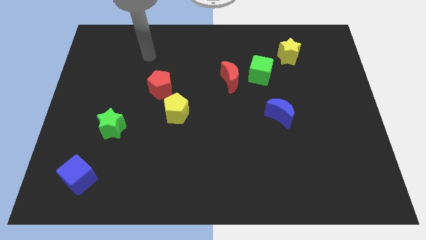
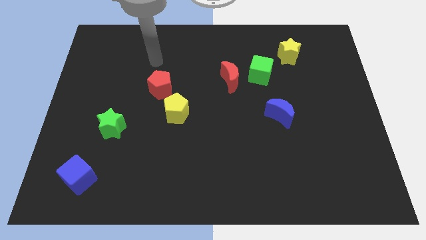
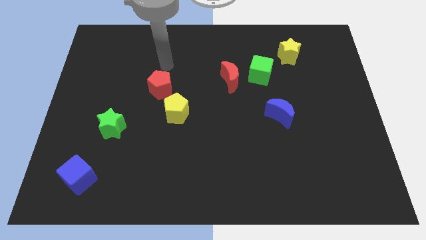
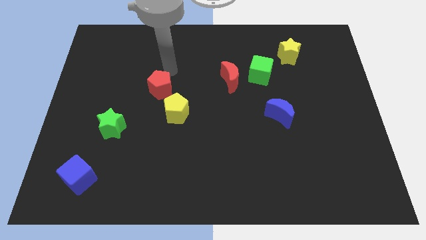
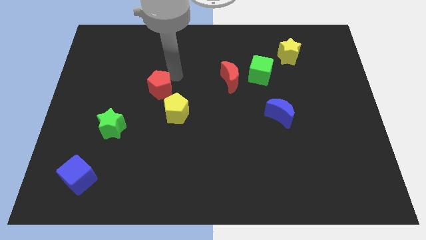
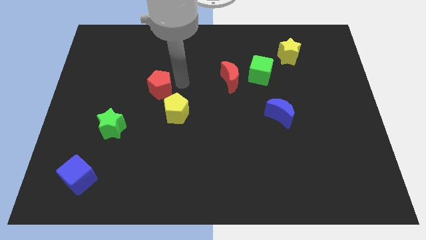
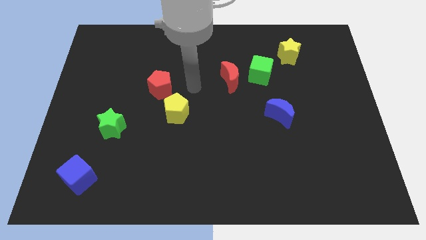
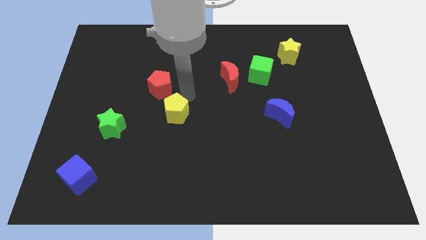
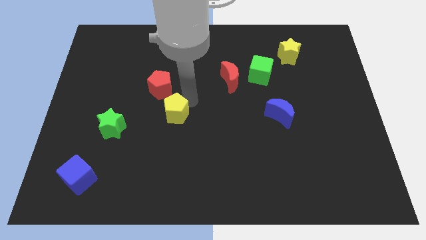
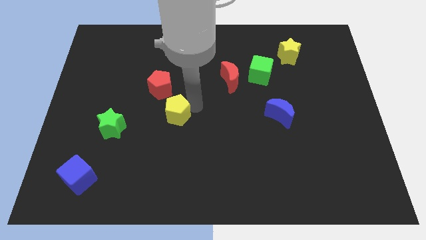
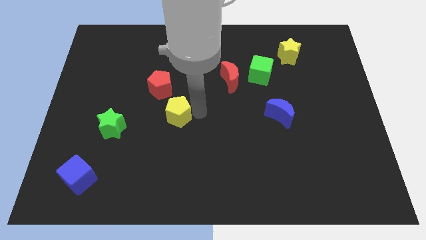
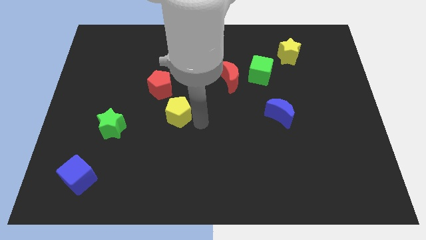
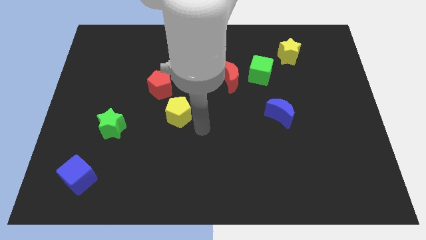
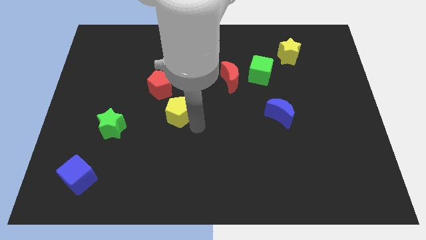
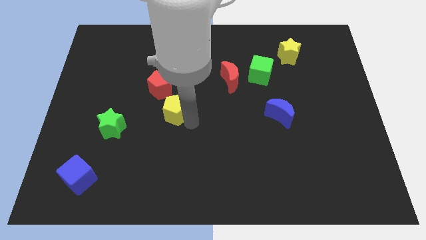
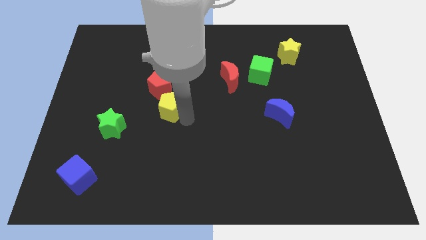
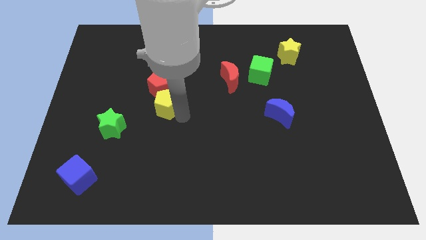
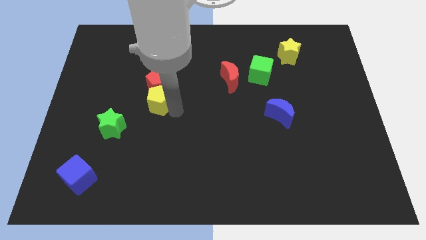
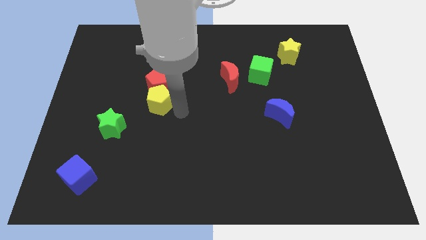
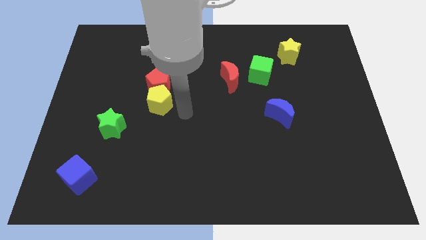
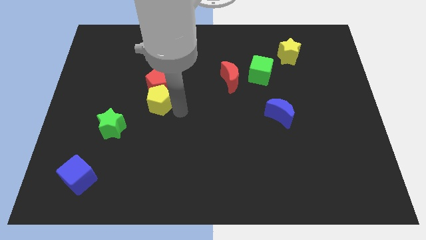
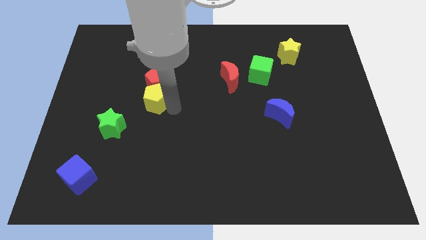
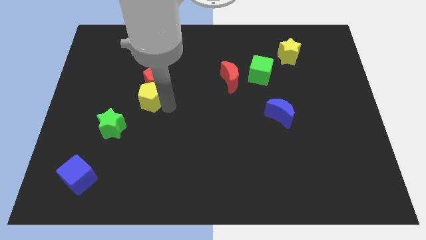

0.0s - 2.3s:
move the yellow pentagon a little bit diagonally upwards and left

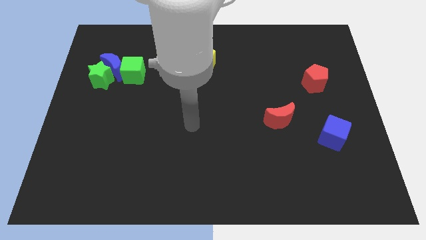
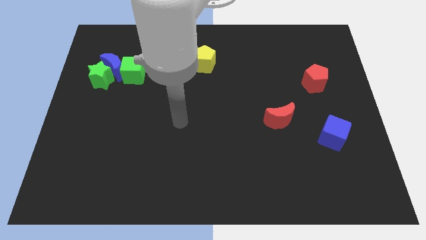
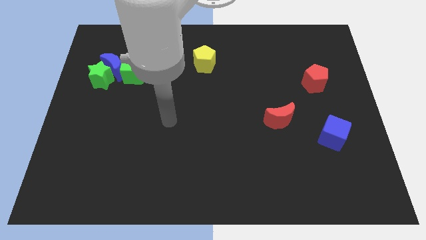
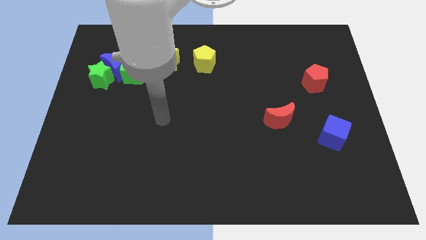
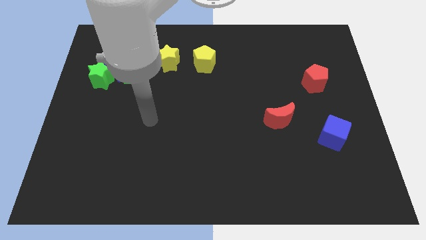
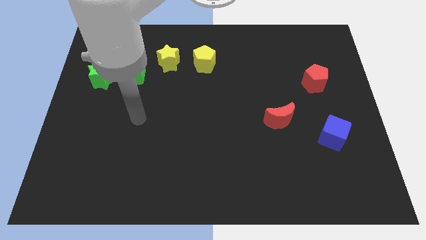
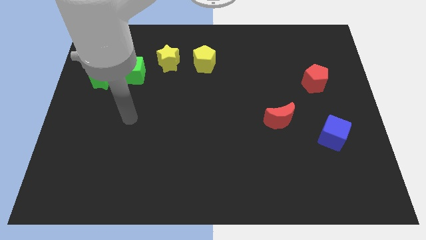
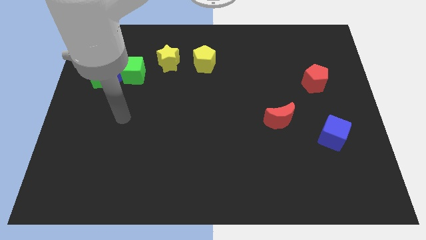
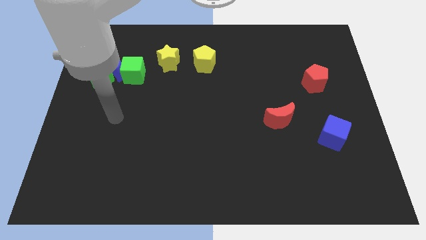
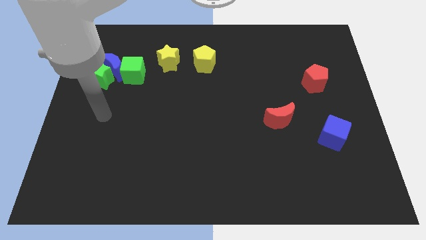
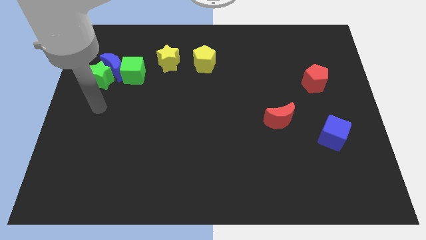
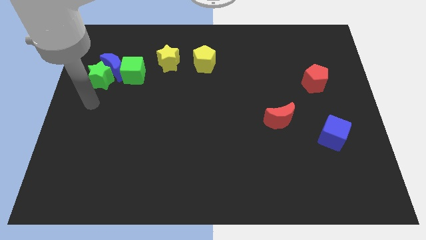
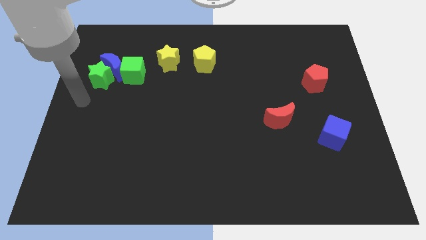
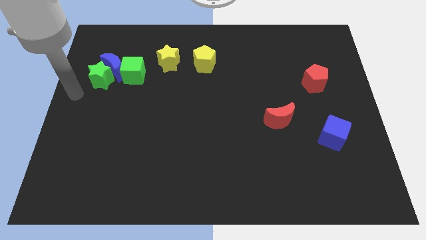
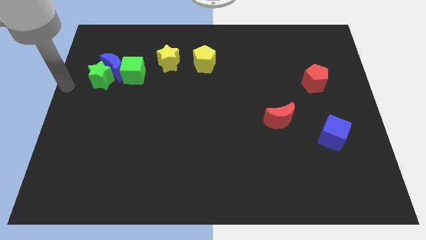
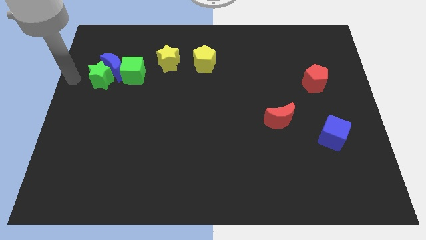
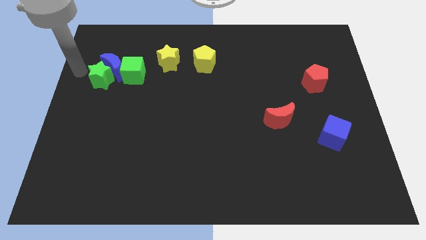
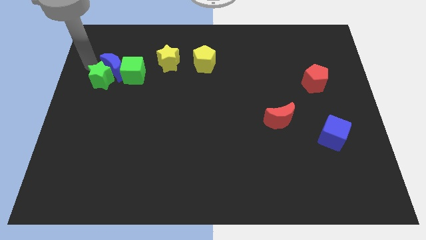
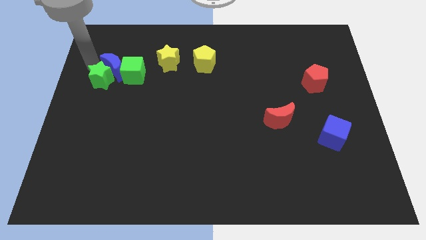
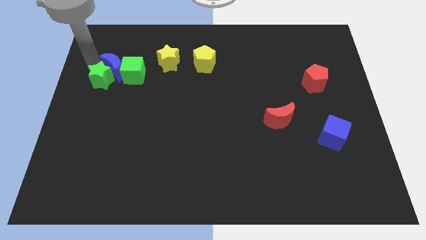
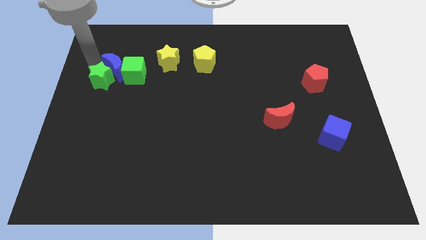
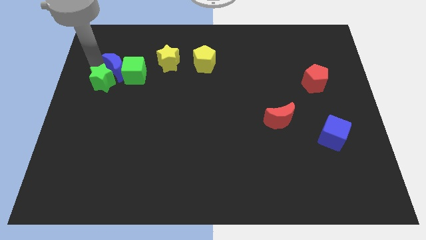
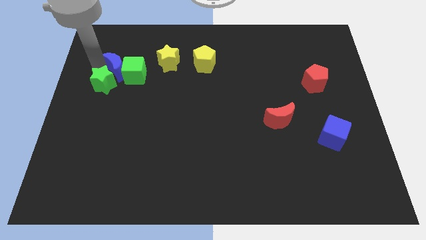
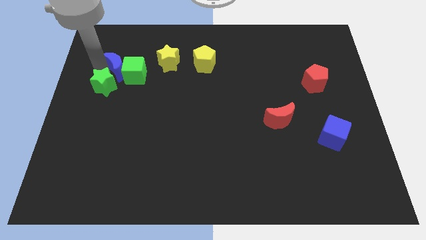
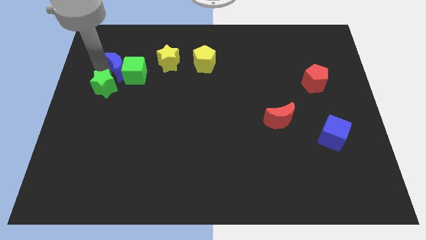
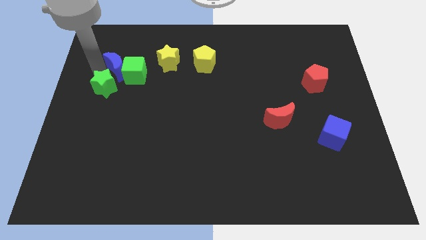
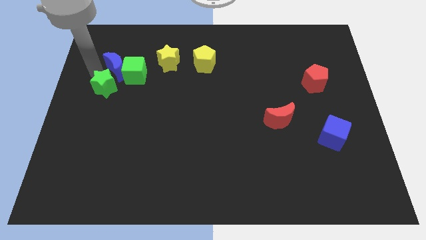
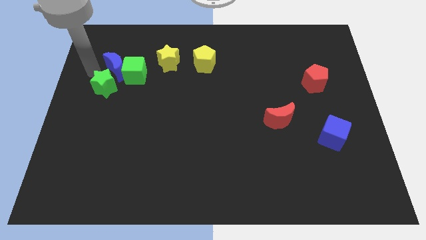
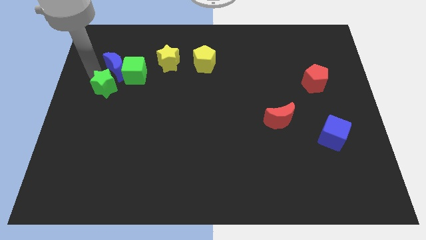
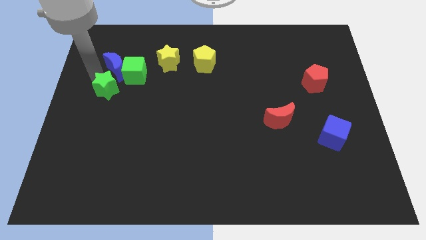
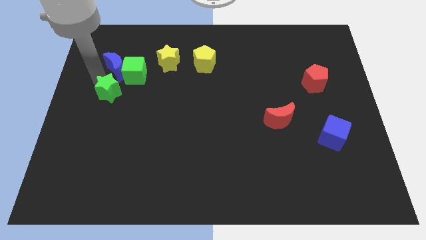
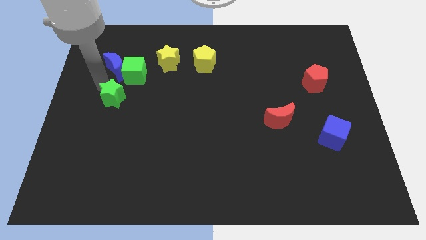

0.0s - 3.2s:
slide the green star slightly downwards and to the right

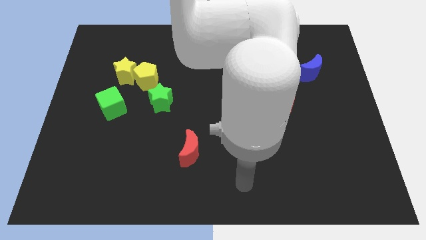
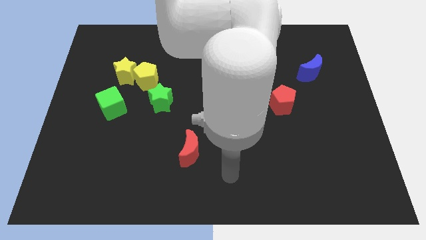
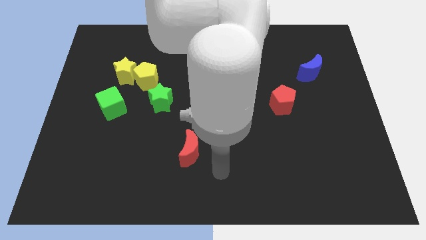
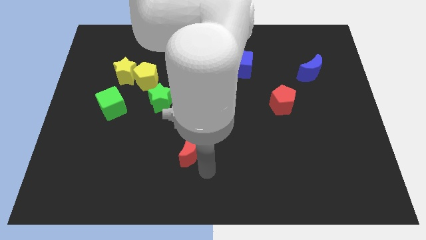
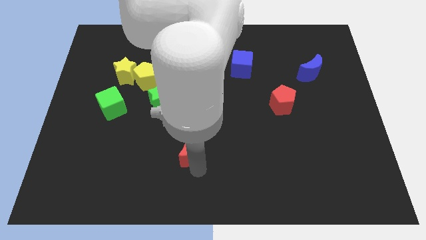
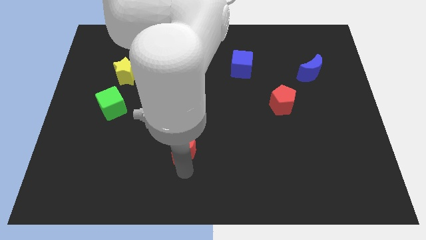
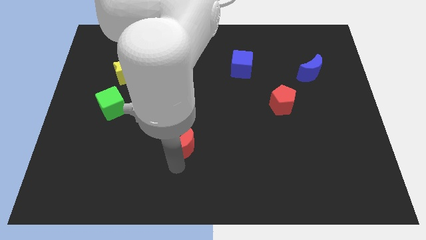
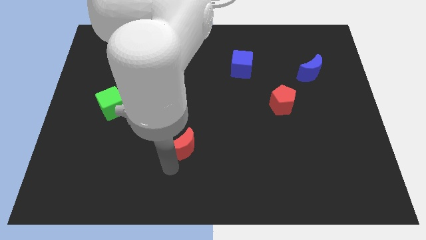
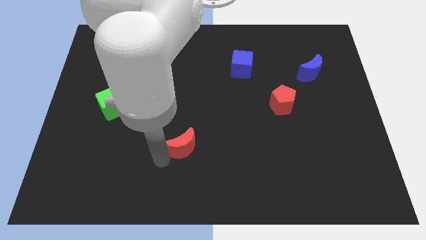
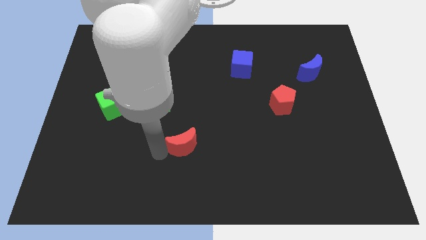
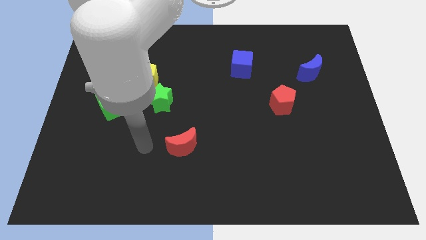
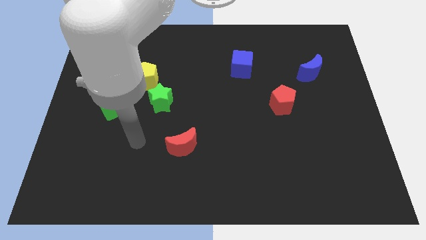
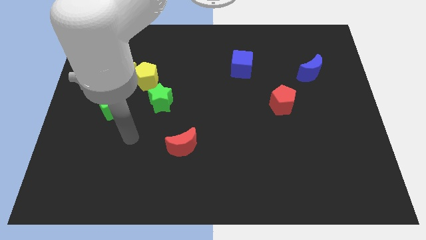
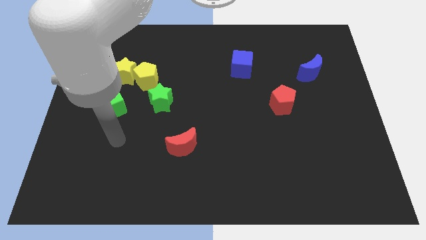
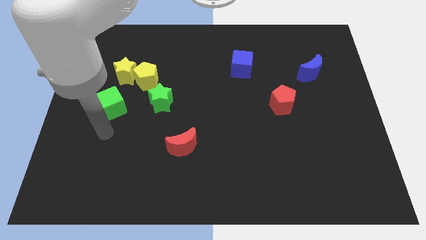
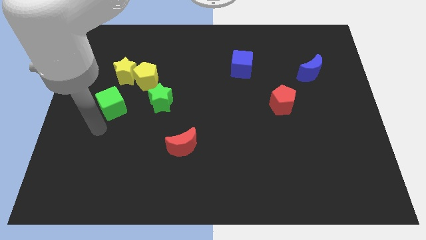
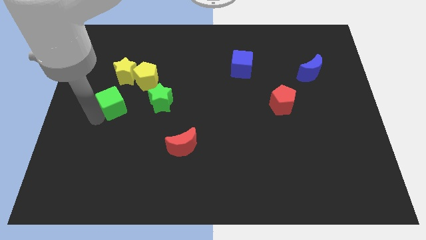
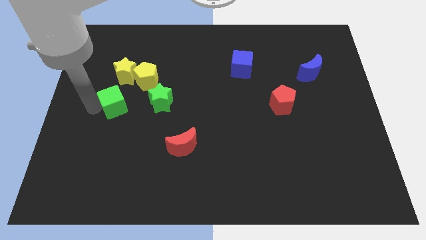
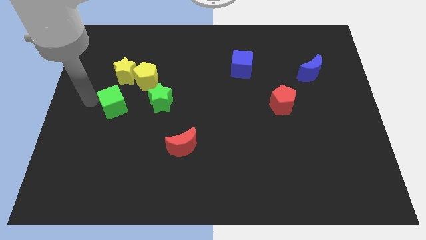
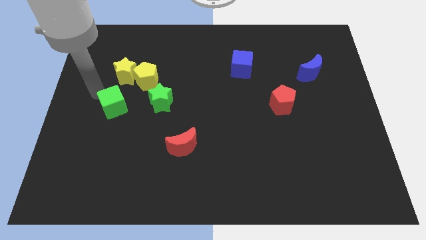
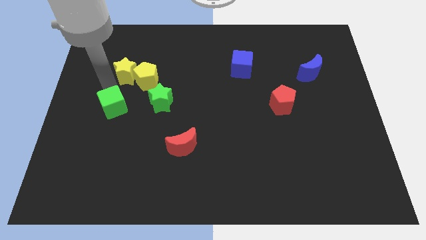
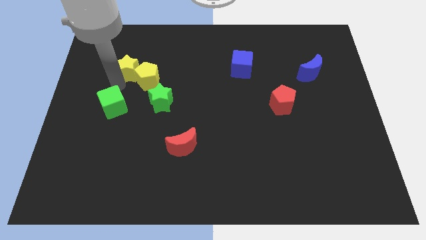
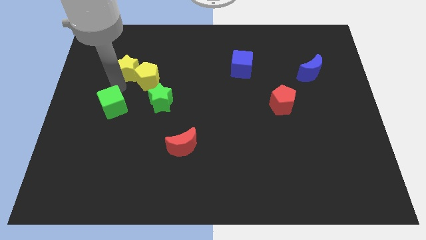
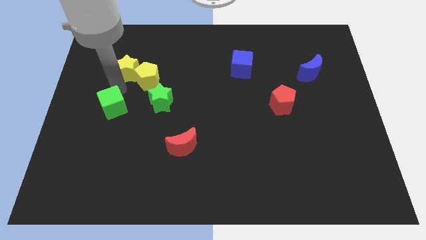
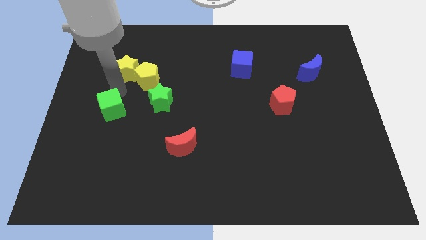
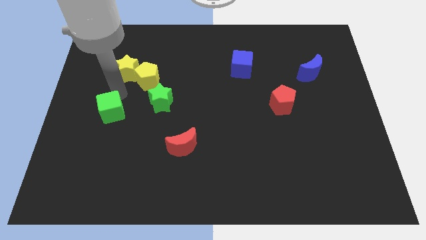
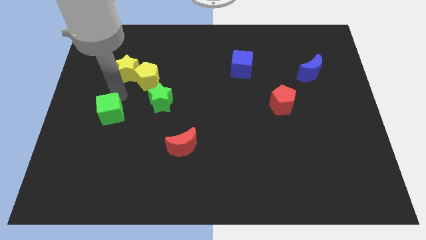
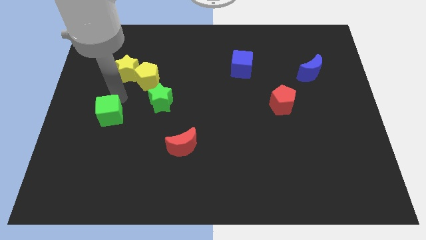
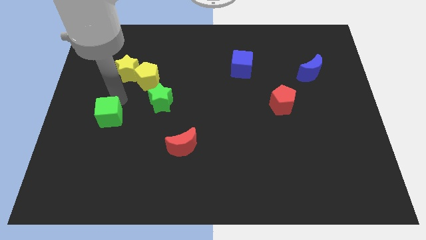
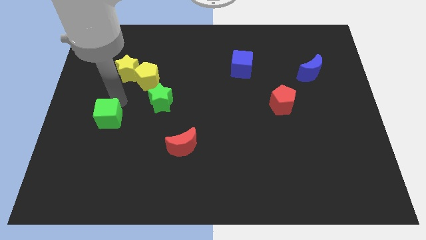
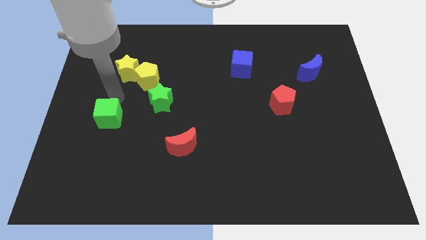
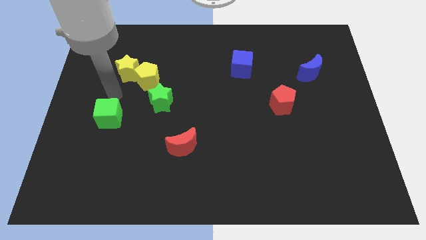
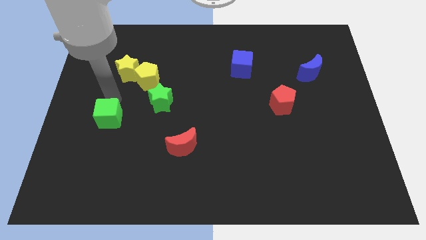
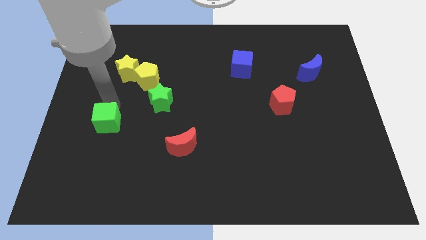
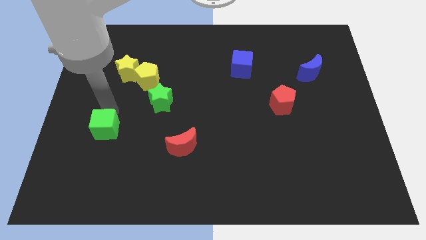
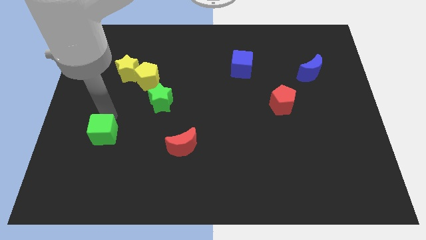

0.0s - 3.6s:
move the green cube downwards a little bit
